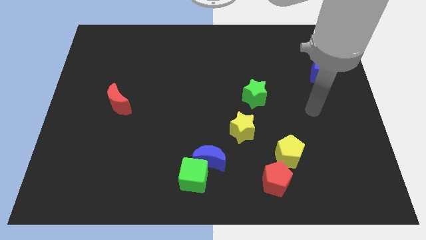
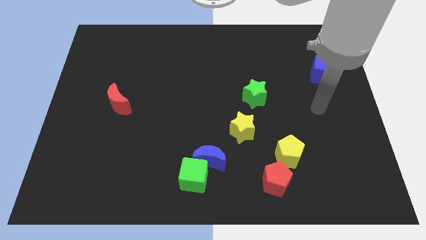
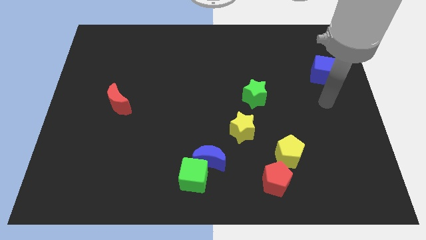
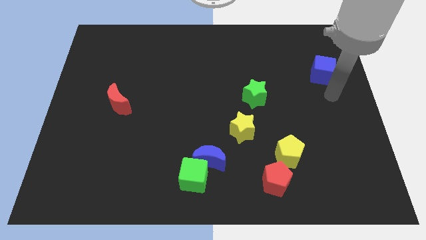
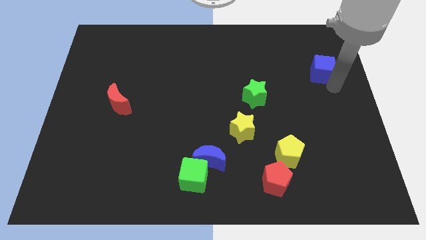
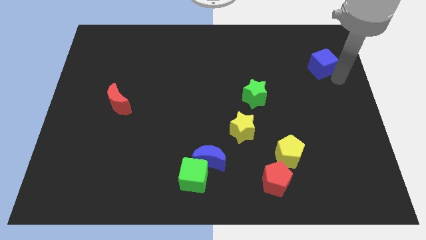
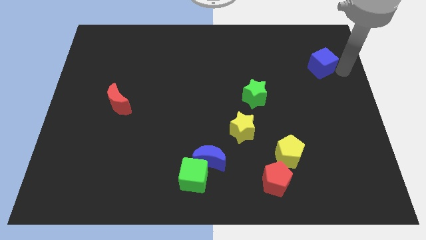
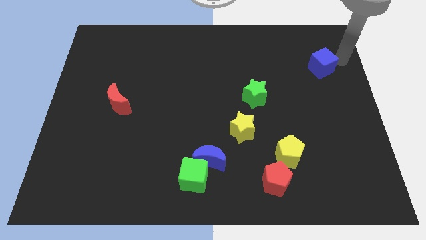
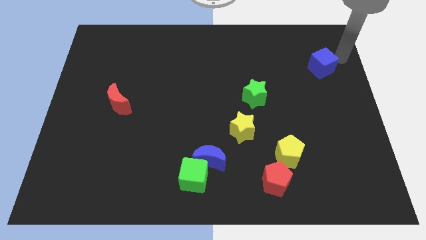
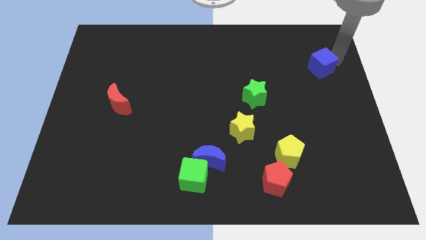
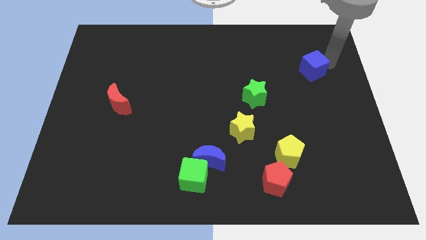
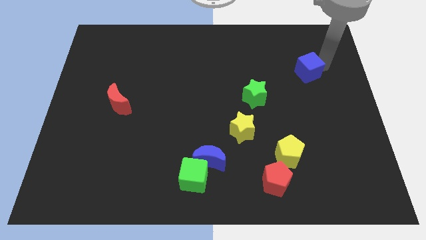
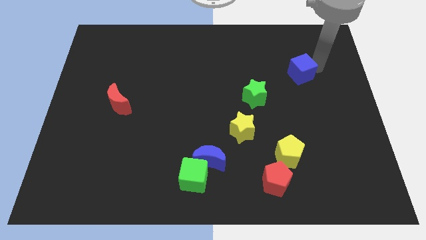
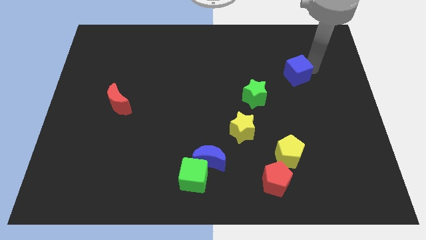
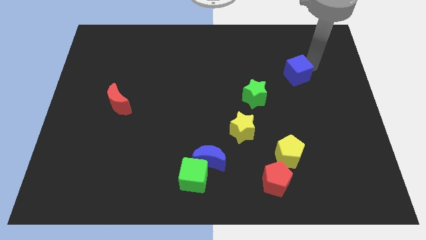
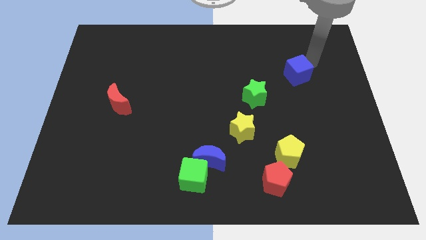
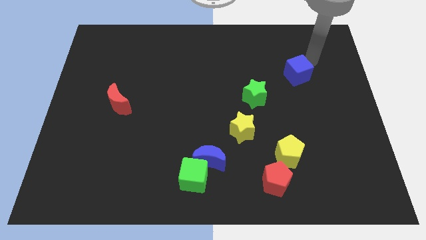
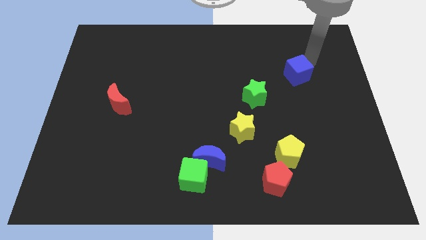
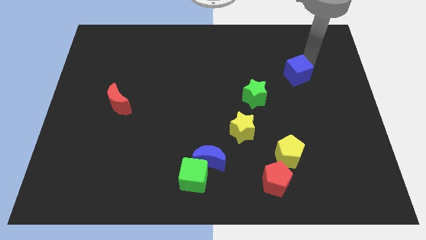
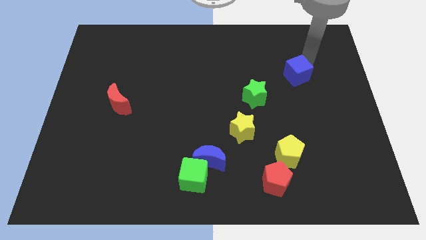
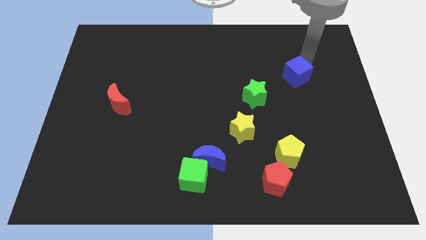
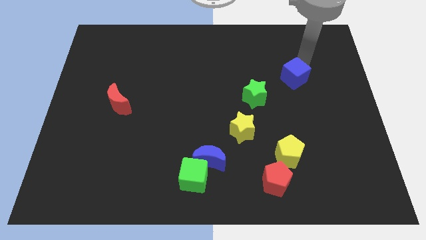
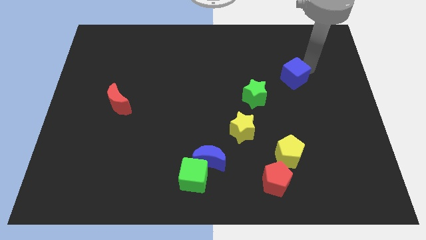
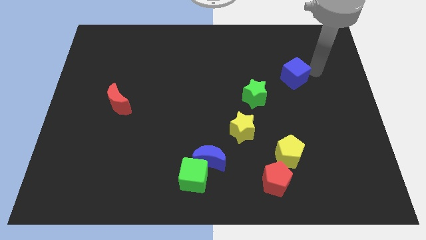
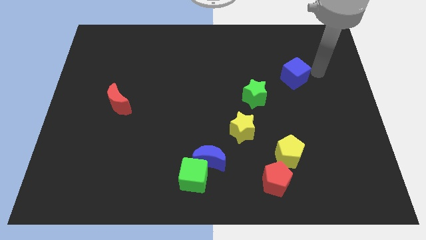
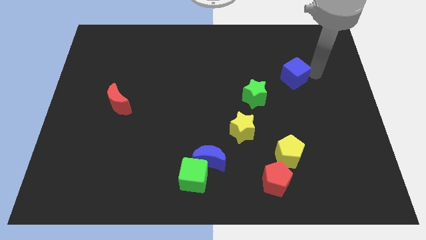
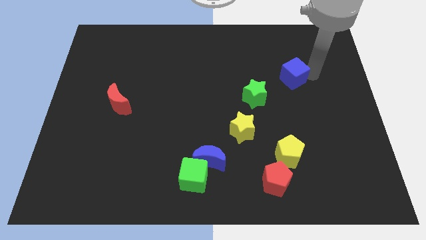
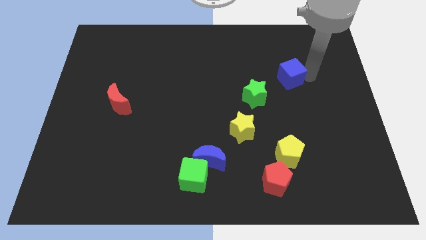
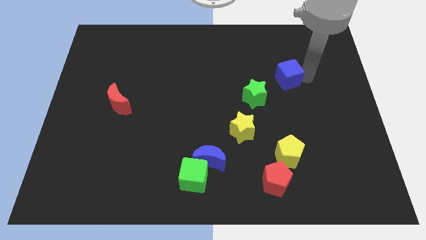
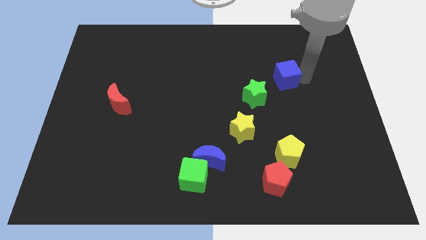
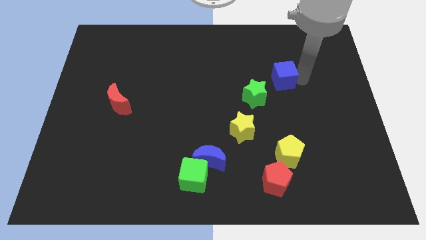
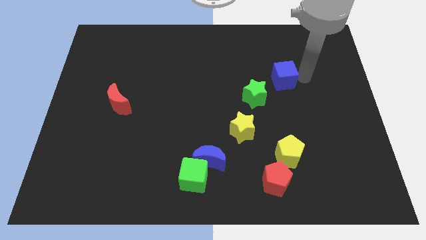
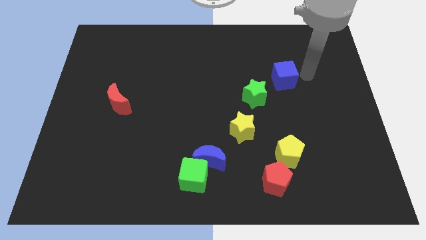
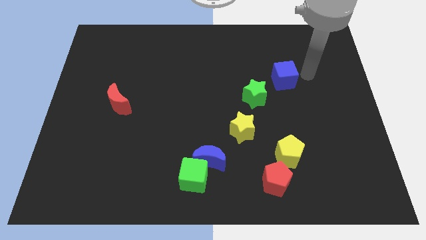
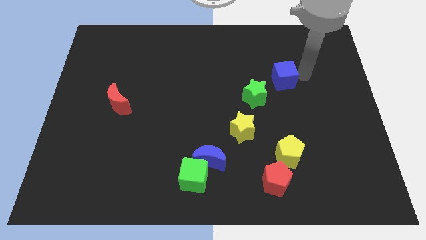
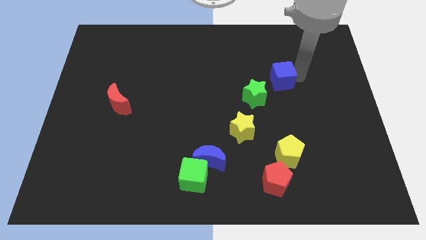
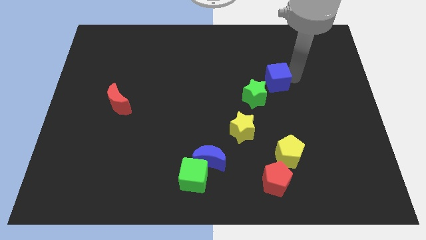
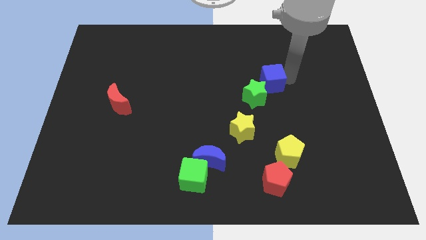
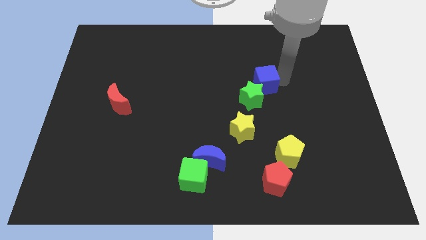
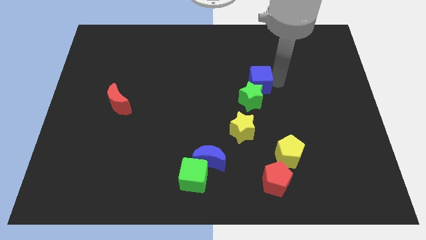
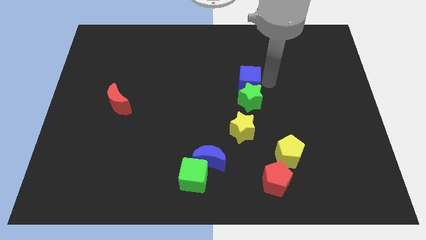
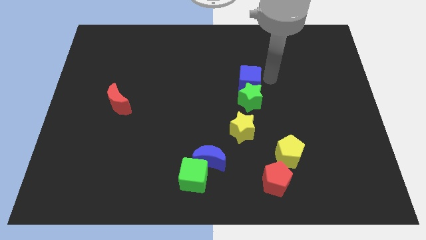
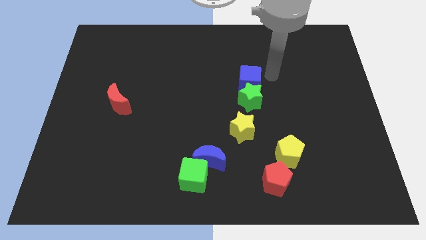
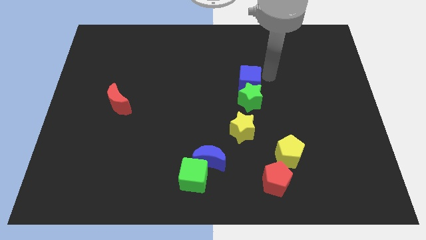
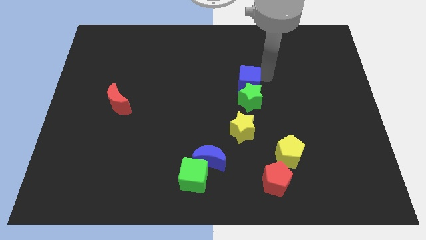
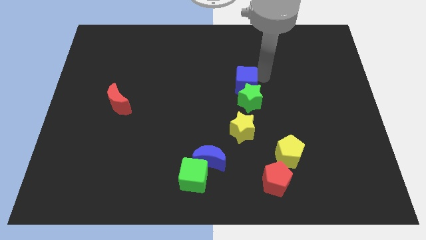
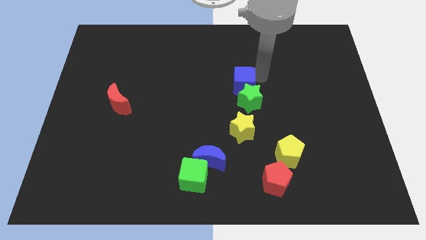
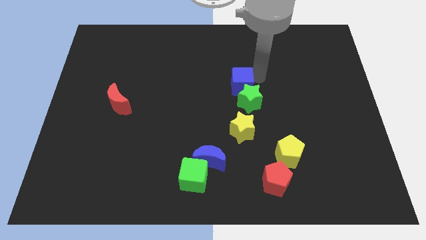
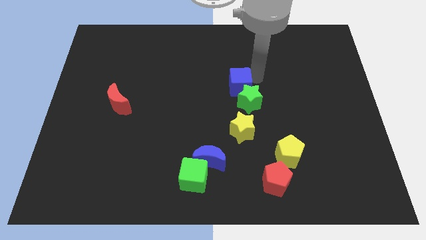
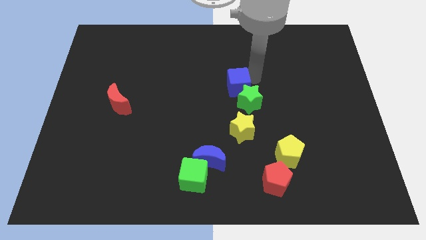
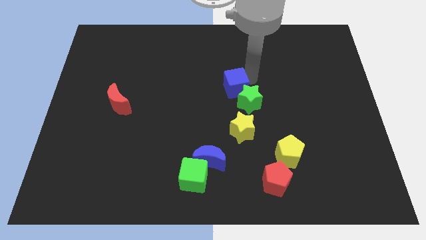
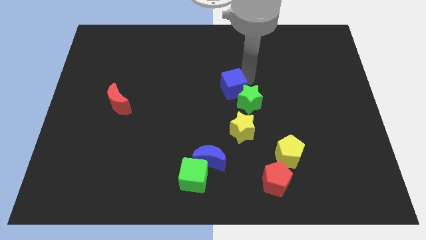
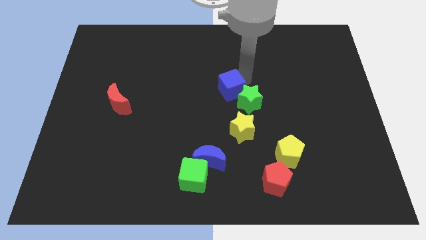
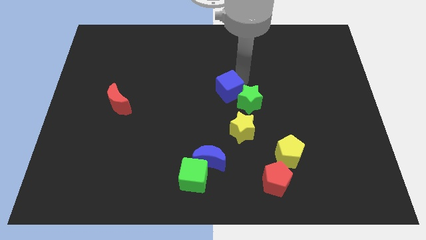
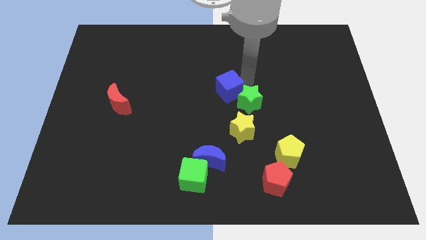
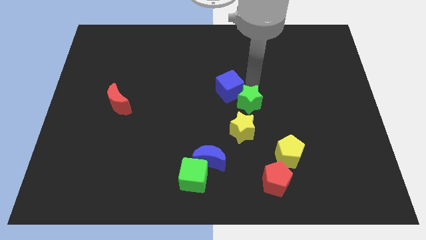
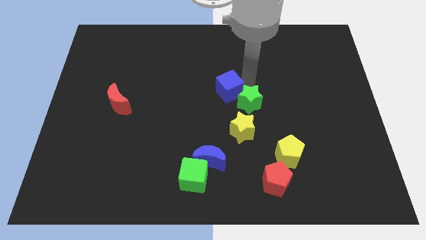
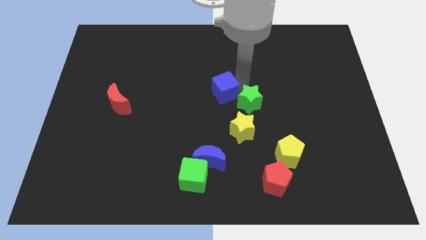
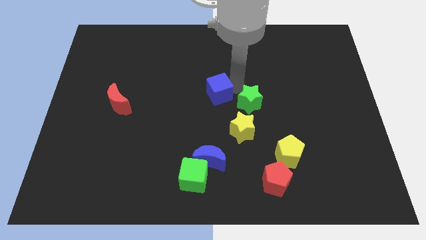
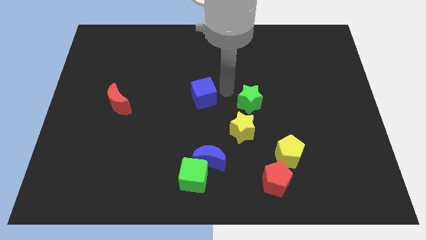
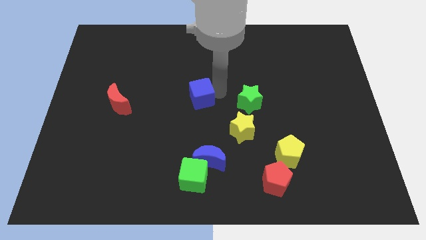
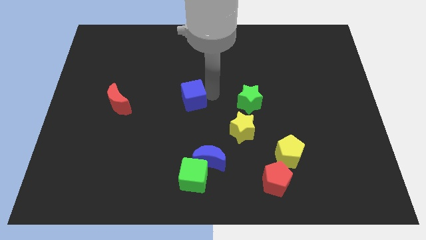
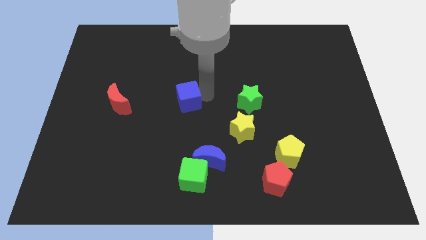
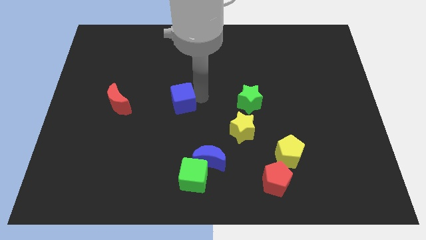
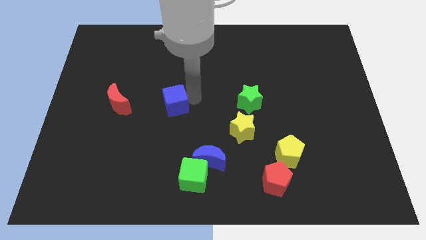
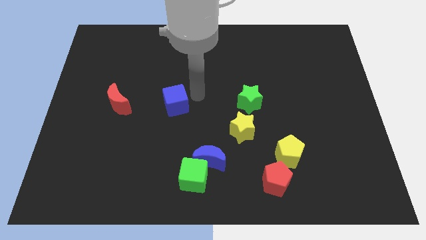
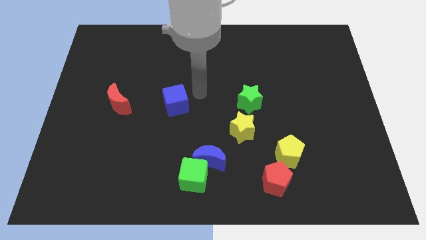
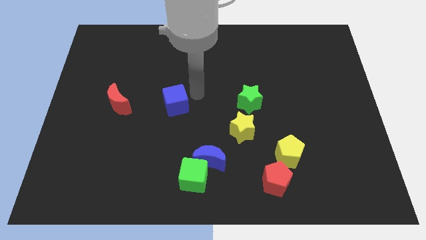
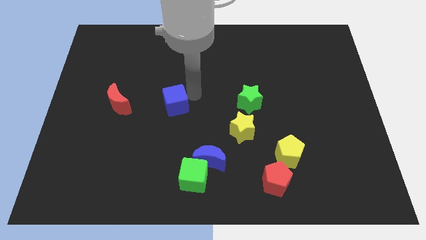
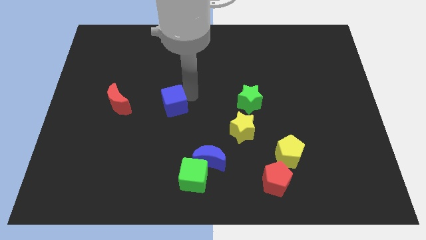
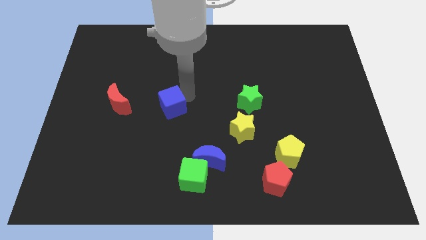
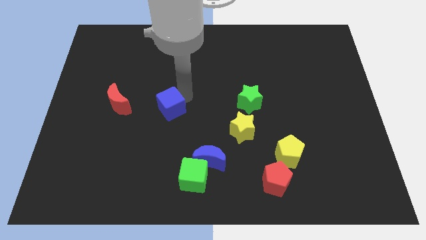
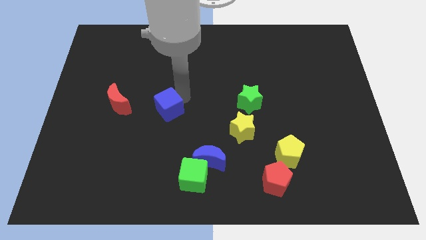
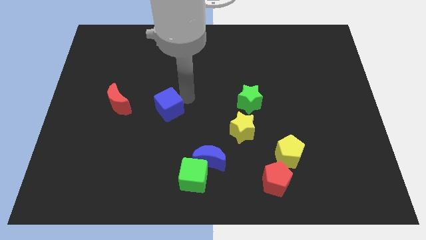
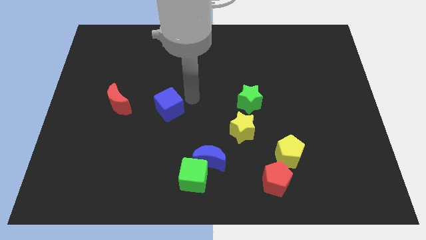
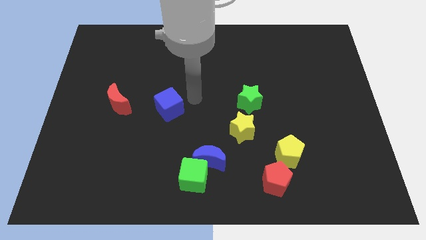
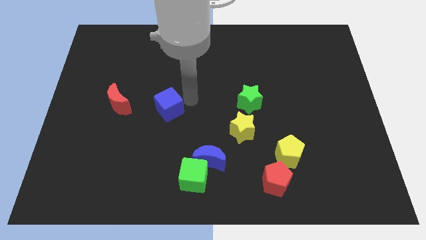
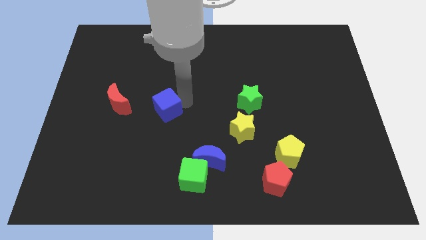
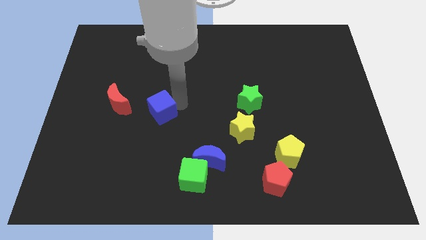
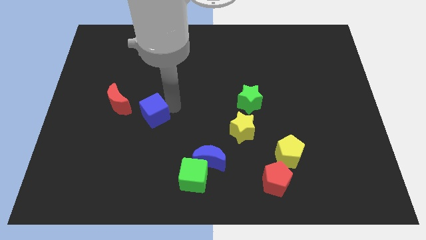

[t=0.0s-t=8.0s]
slide the blue cube diagonally down and to the right of the red moon
